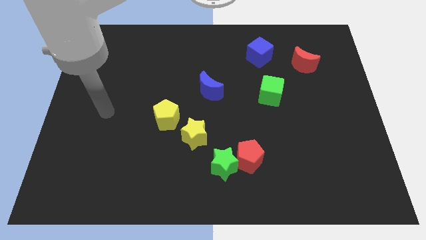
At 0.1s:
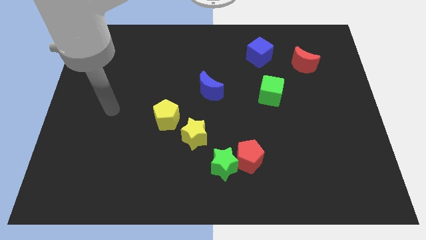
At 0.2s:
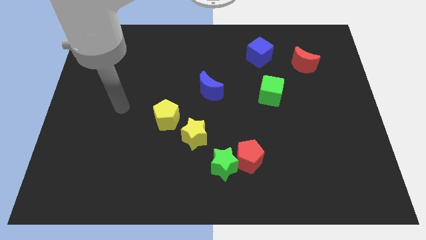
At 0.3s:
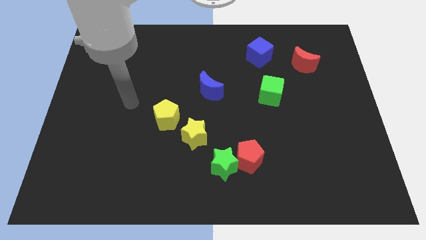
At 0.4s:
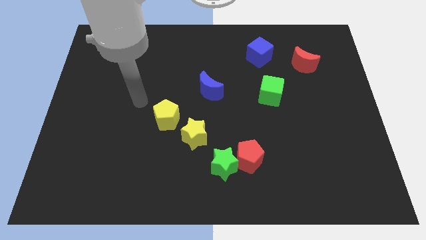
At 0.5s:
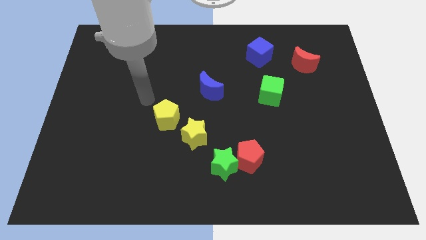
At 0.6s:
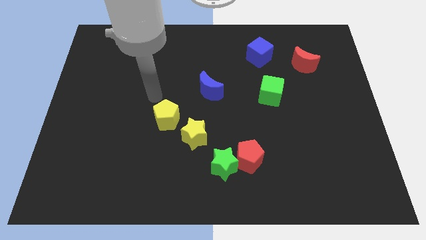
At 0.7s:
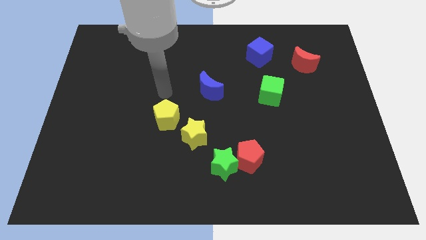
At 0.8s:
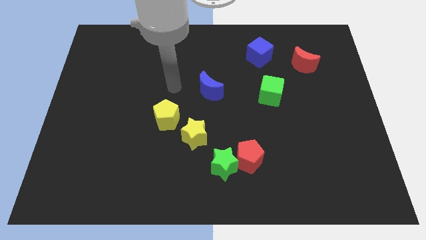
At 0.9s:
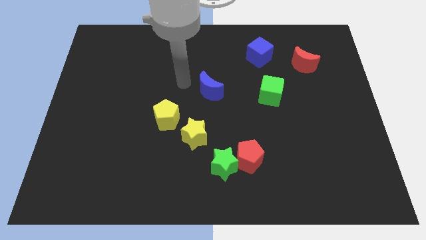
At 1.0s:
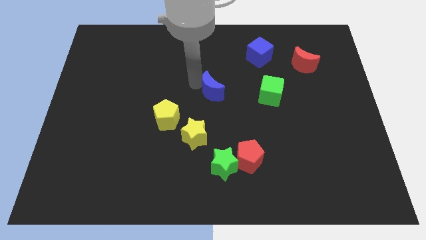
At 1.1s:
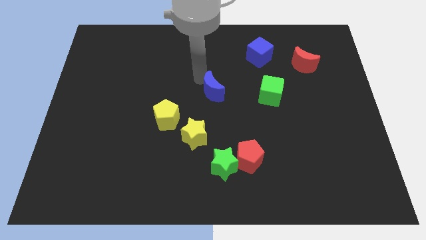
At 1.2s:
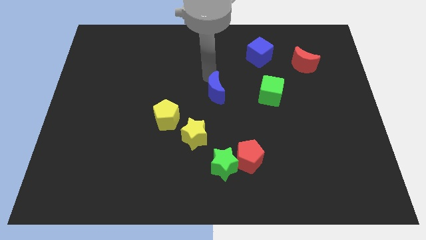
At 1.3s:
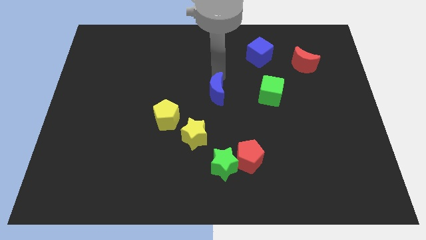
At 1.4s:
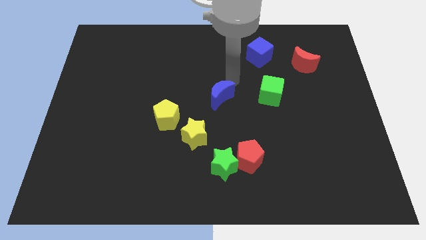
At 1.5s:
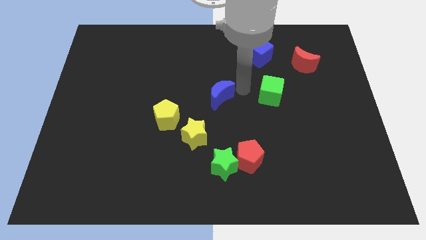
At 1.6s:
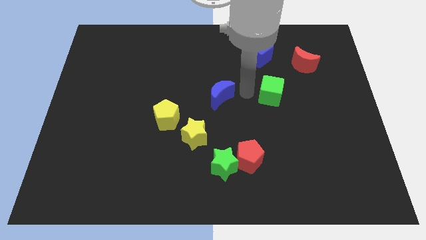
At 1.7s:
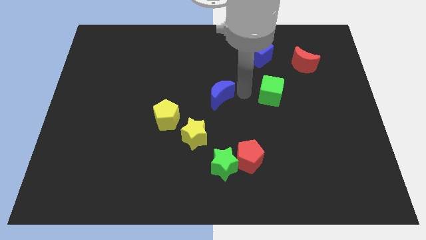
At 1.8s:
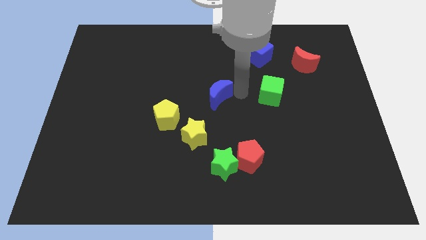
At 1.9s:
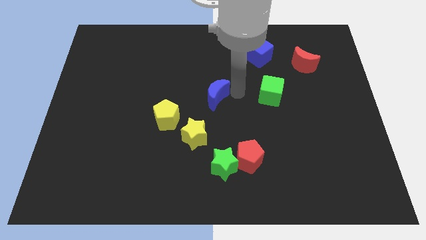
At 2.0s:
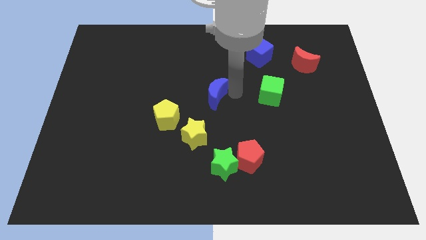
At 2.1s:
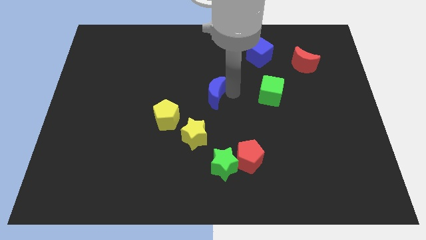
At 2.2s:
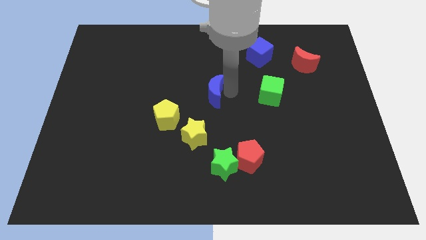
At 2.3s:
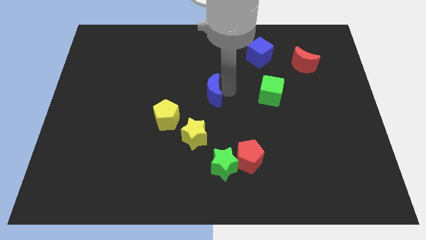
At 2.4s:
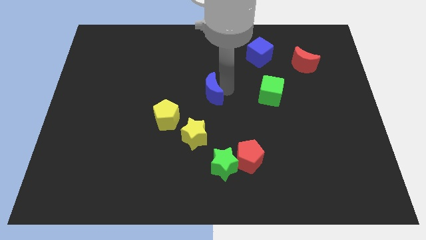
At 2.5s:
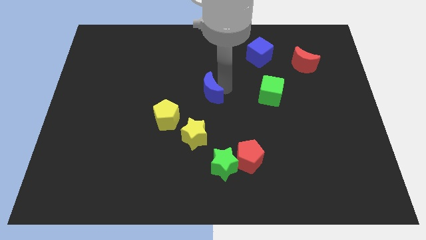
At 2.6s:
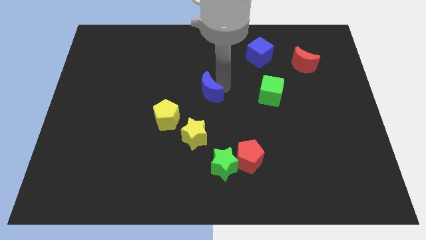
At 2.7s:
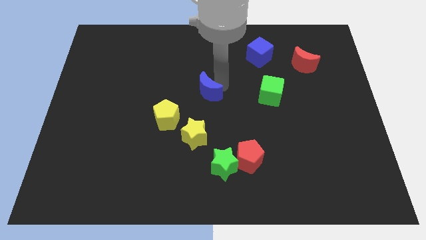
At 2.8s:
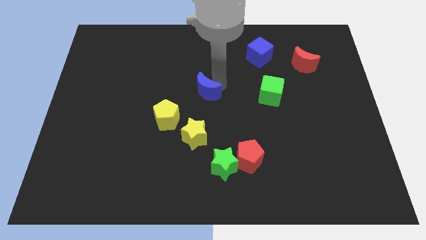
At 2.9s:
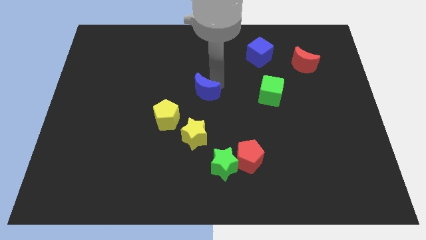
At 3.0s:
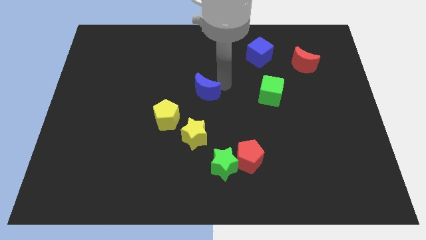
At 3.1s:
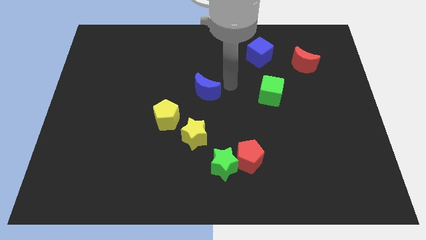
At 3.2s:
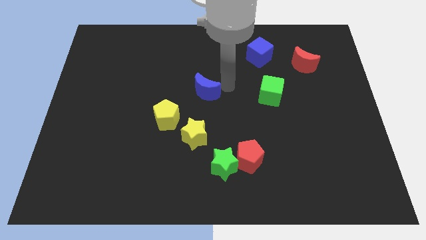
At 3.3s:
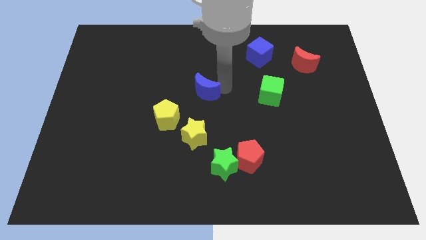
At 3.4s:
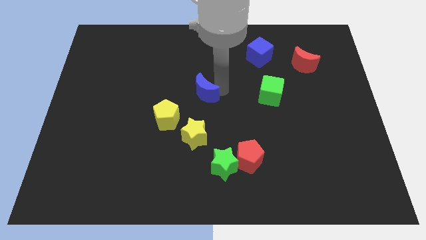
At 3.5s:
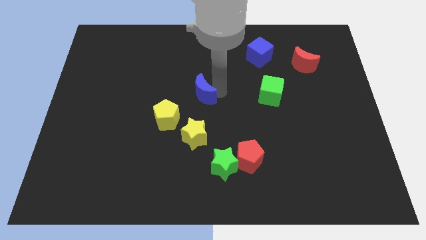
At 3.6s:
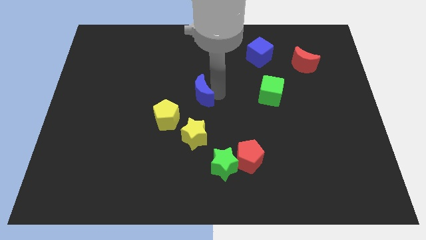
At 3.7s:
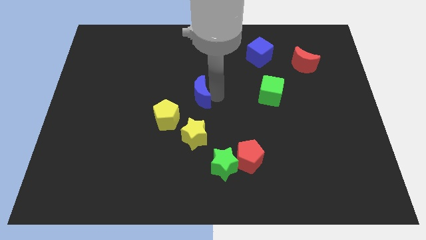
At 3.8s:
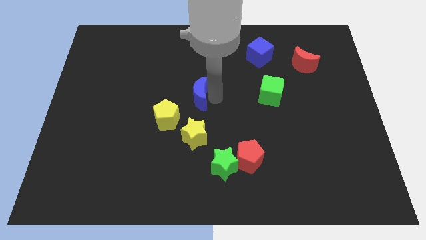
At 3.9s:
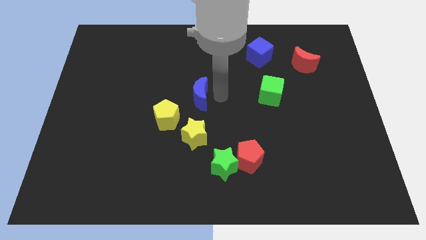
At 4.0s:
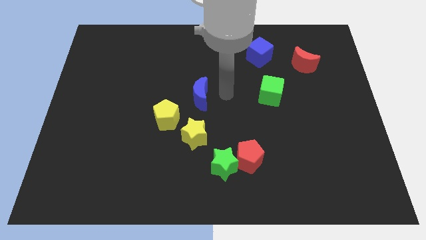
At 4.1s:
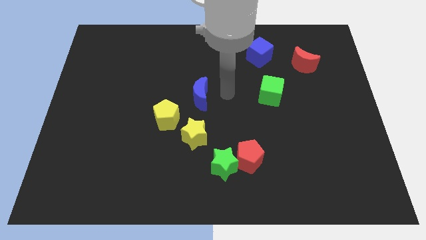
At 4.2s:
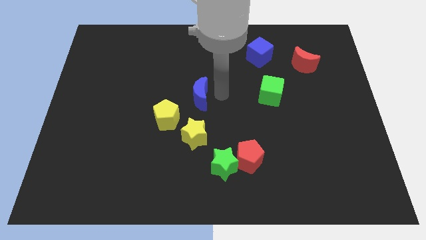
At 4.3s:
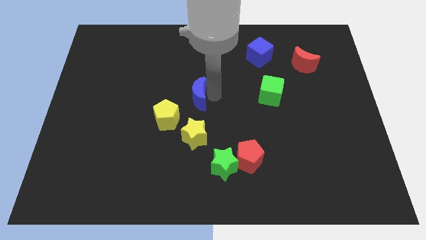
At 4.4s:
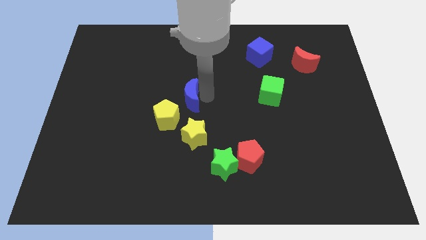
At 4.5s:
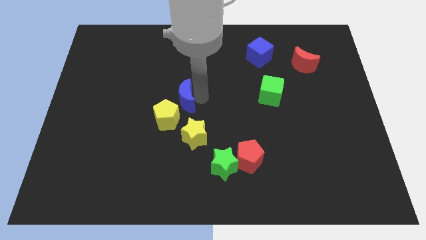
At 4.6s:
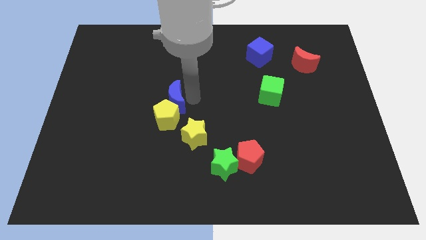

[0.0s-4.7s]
slide the blue moon diagonally down and to the left a bit

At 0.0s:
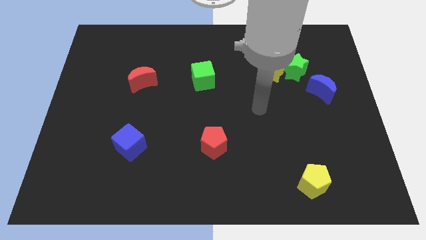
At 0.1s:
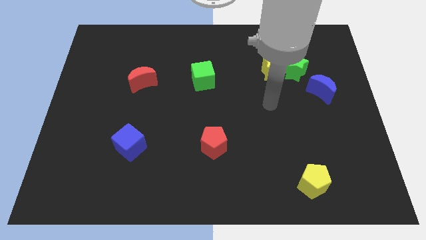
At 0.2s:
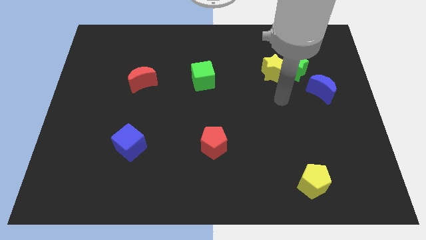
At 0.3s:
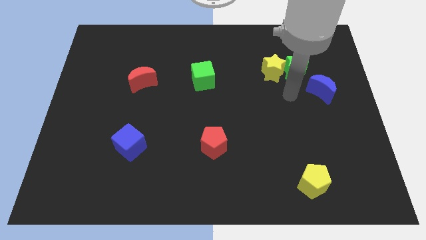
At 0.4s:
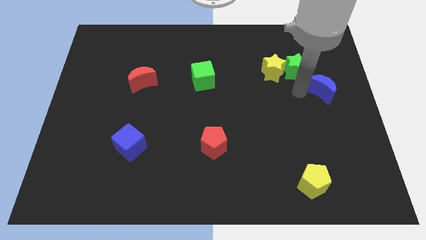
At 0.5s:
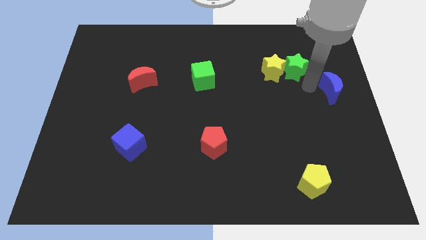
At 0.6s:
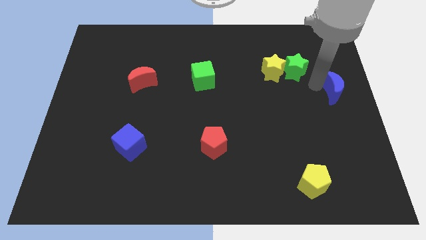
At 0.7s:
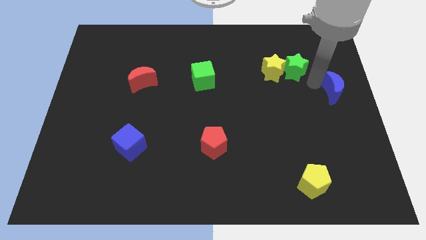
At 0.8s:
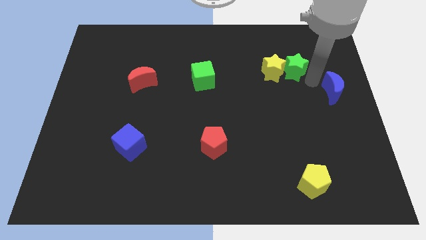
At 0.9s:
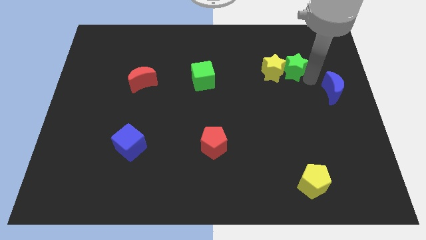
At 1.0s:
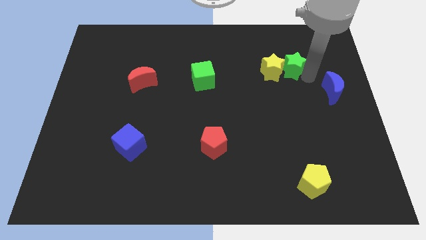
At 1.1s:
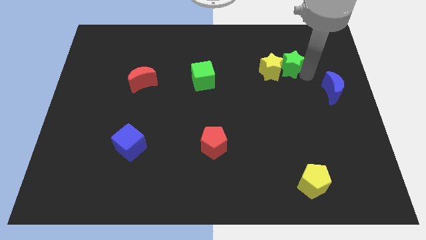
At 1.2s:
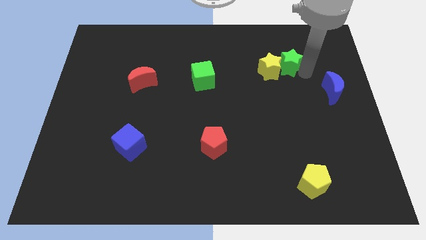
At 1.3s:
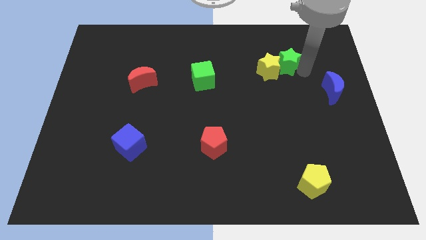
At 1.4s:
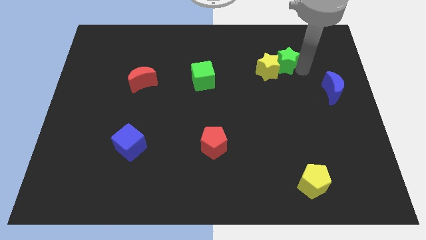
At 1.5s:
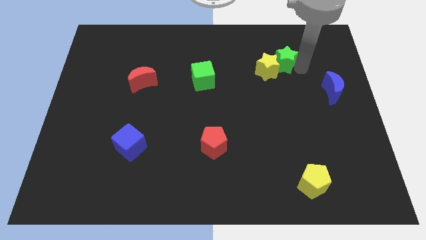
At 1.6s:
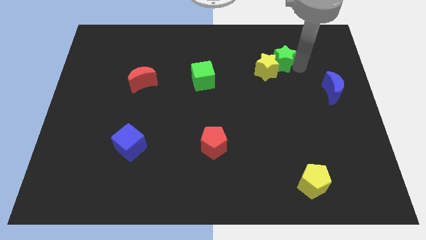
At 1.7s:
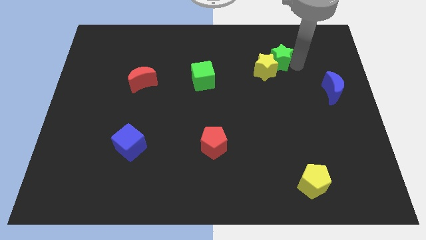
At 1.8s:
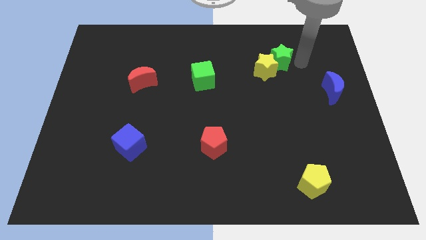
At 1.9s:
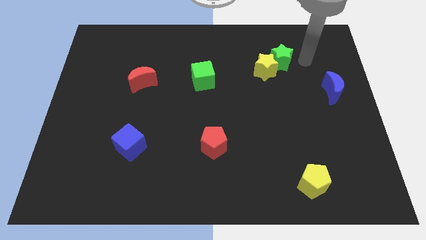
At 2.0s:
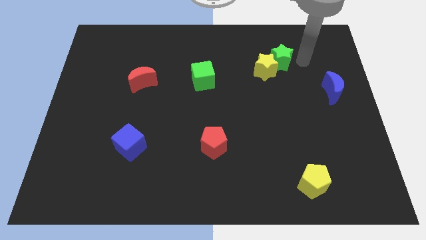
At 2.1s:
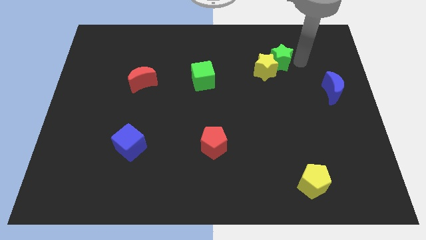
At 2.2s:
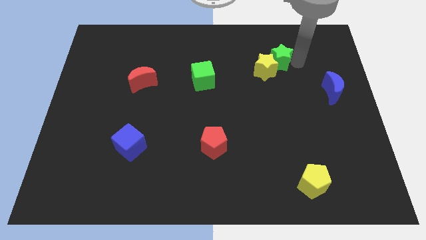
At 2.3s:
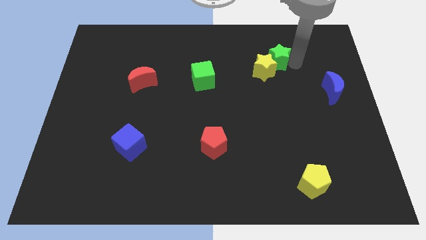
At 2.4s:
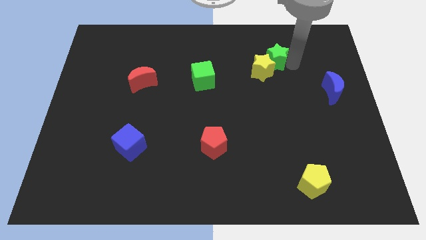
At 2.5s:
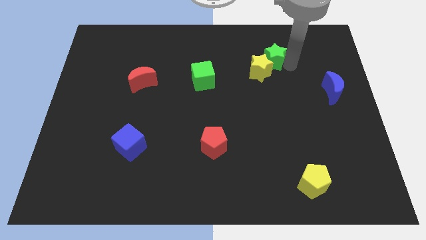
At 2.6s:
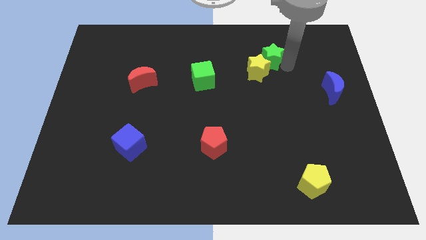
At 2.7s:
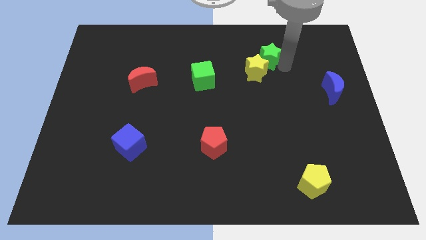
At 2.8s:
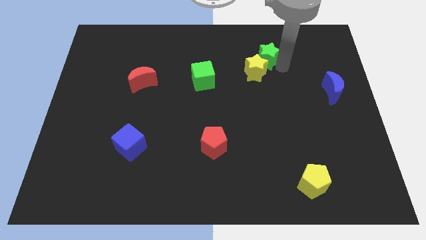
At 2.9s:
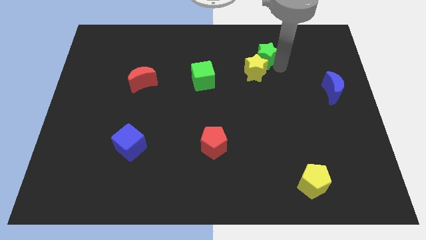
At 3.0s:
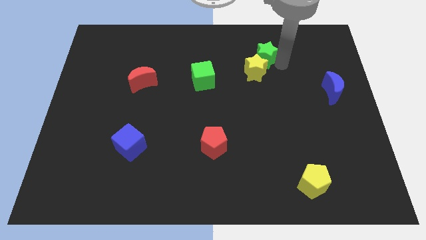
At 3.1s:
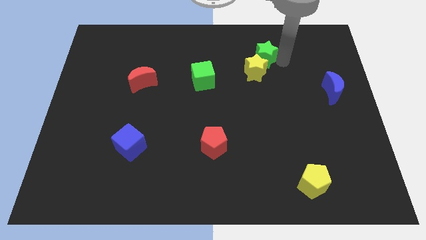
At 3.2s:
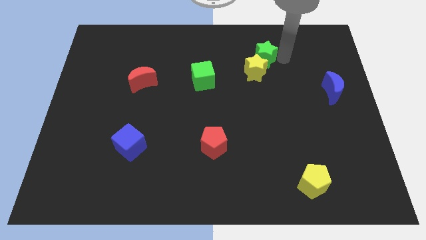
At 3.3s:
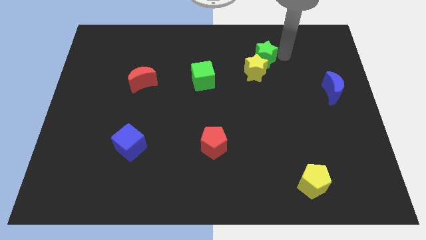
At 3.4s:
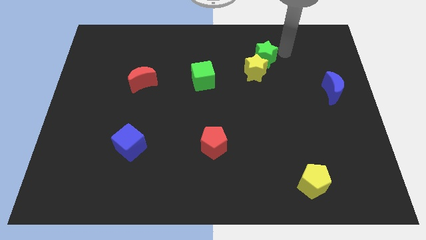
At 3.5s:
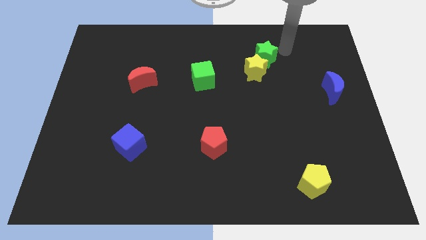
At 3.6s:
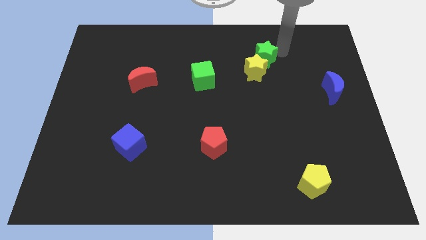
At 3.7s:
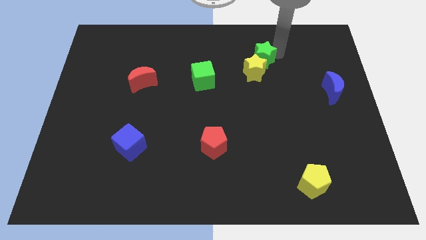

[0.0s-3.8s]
move the green star to the left slightly
